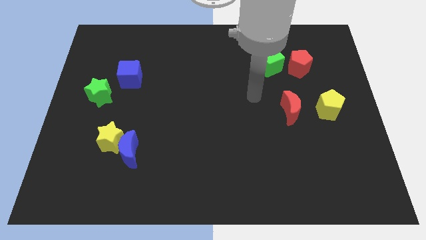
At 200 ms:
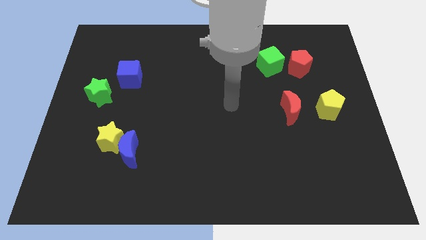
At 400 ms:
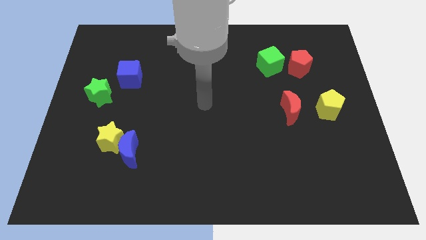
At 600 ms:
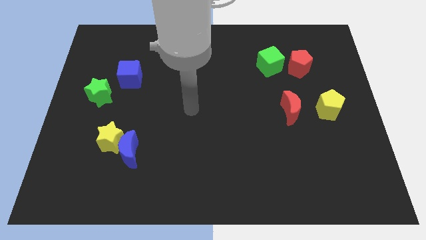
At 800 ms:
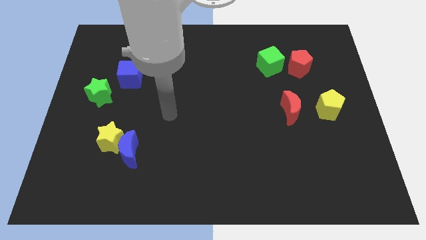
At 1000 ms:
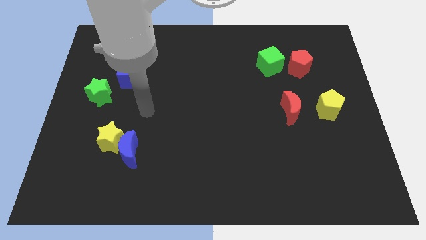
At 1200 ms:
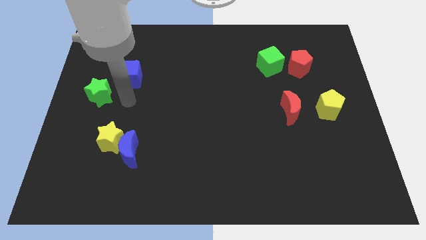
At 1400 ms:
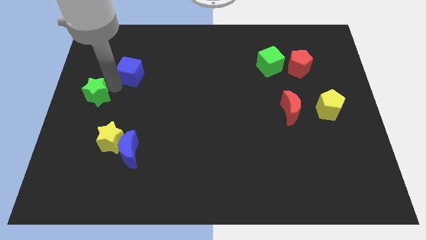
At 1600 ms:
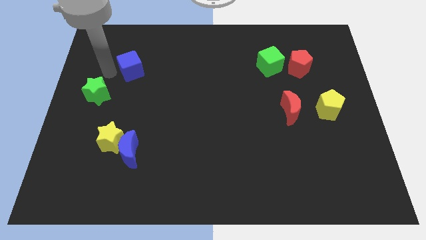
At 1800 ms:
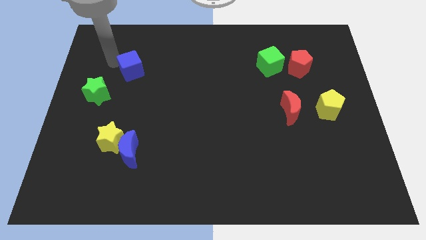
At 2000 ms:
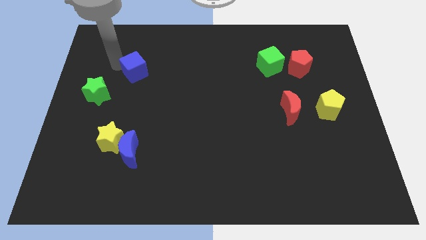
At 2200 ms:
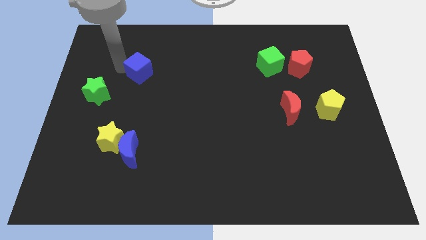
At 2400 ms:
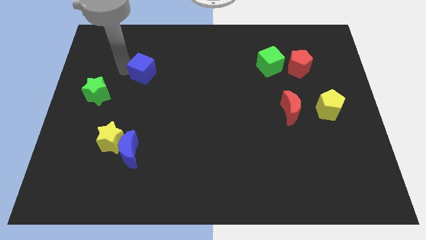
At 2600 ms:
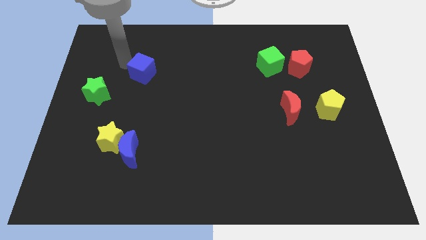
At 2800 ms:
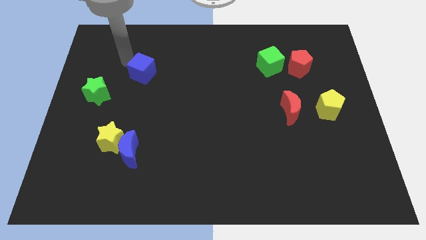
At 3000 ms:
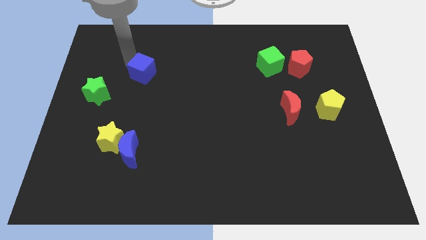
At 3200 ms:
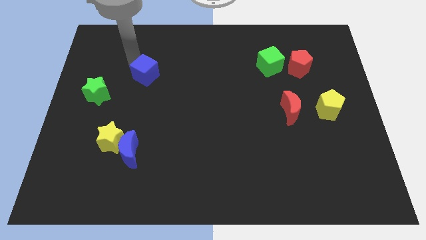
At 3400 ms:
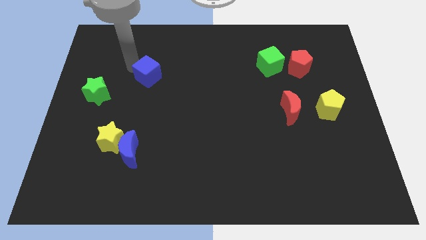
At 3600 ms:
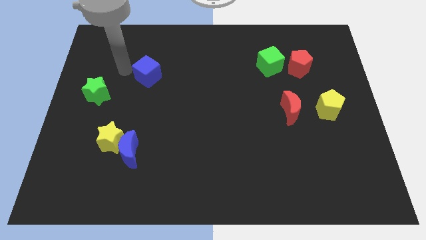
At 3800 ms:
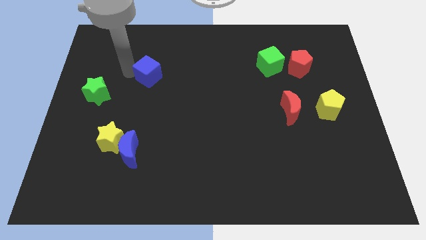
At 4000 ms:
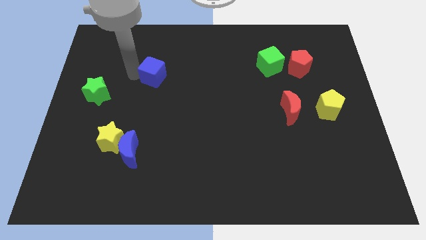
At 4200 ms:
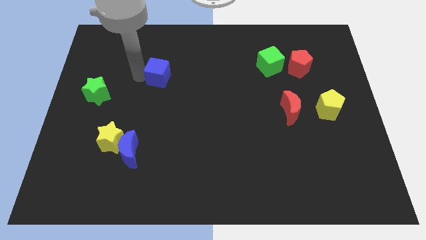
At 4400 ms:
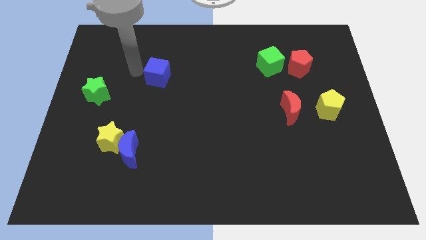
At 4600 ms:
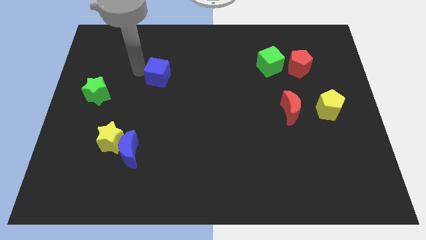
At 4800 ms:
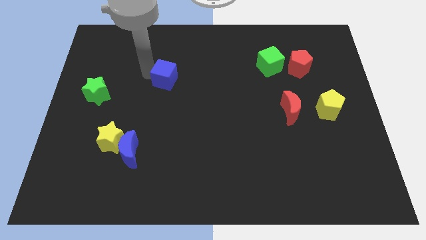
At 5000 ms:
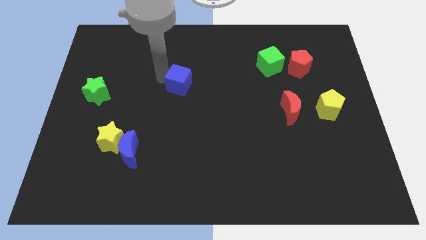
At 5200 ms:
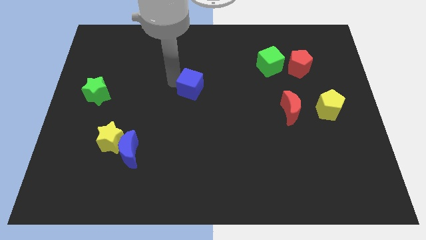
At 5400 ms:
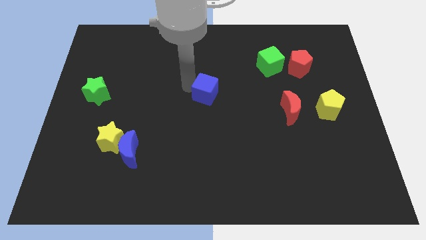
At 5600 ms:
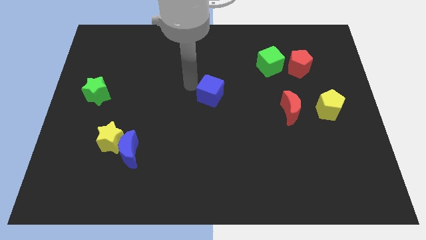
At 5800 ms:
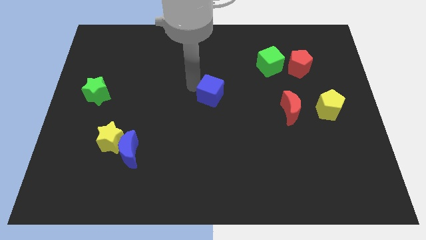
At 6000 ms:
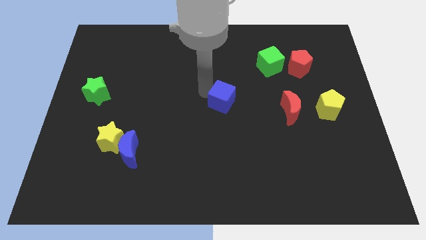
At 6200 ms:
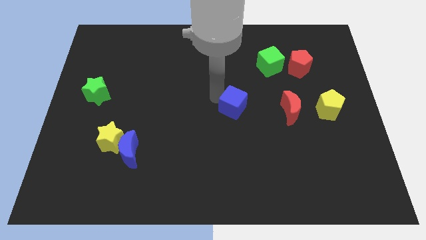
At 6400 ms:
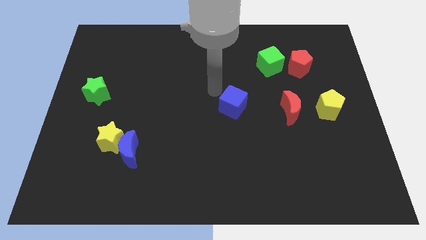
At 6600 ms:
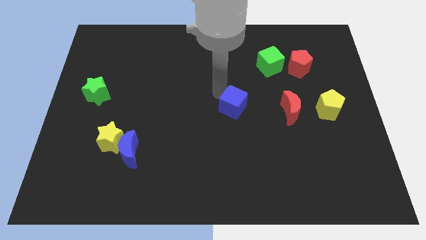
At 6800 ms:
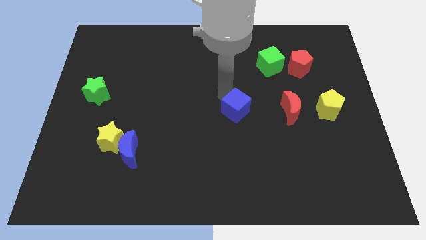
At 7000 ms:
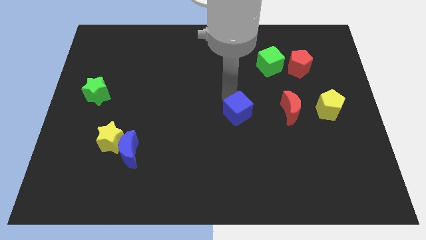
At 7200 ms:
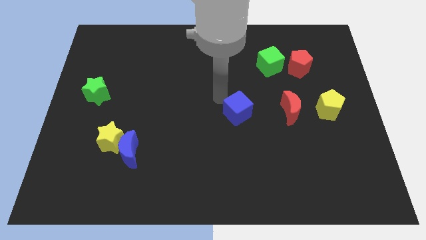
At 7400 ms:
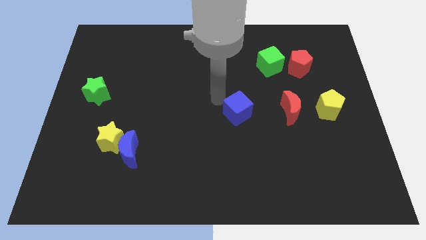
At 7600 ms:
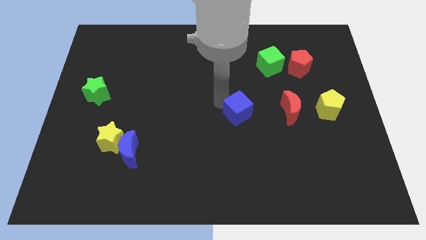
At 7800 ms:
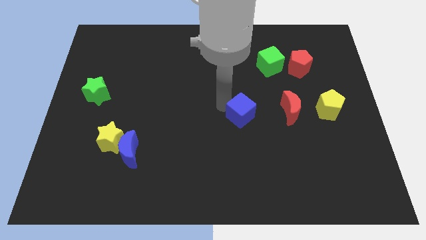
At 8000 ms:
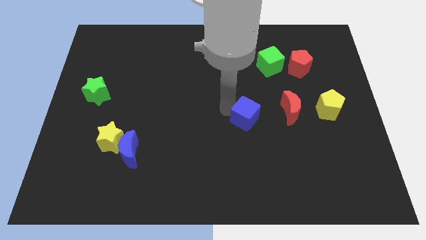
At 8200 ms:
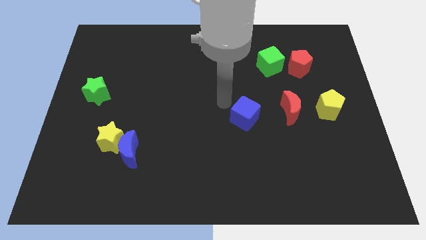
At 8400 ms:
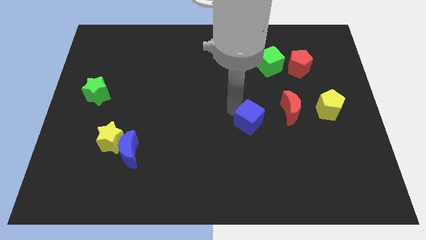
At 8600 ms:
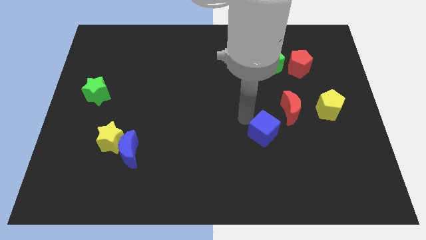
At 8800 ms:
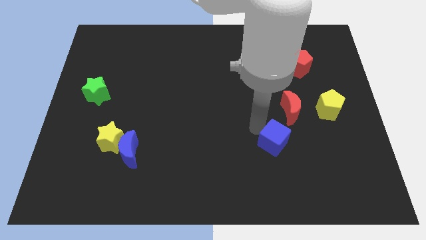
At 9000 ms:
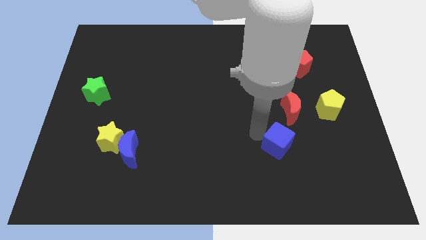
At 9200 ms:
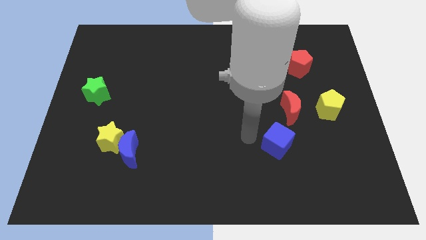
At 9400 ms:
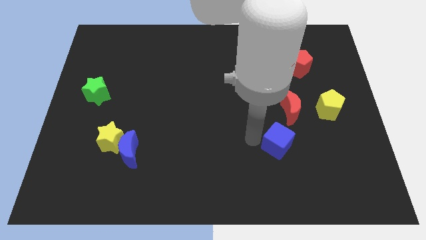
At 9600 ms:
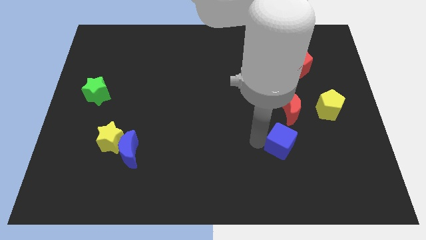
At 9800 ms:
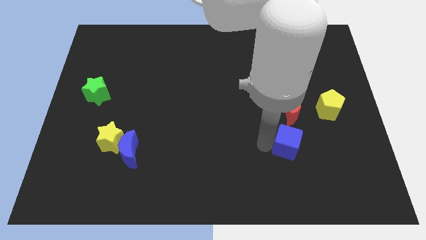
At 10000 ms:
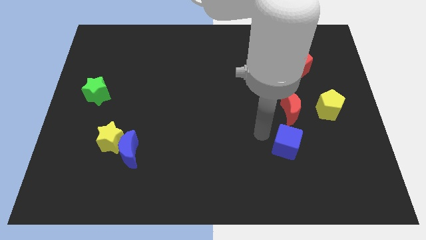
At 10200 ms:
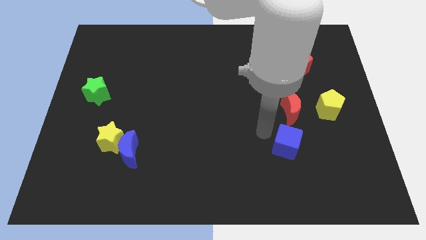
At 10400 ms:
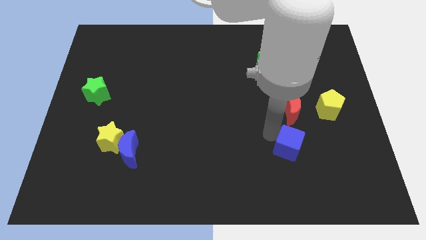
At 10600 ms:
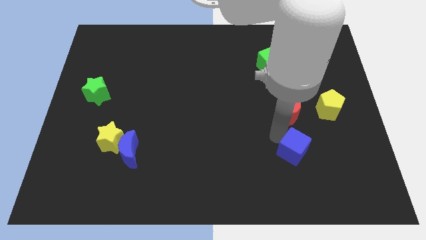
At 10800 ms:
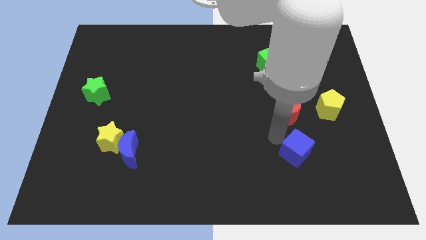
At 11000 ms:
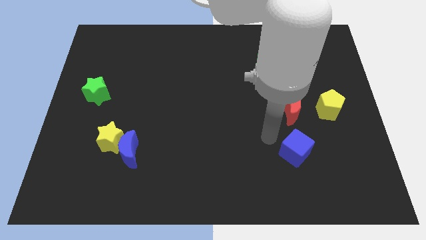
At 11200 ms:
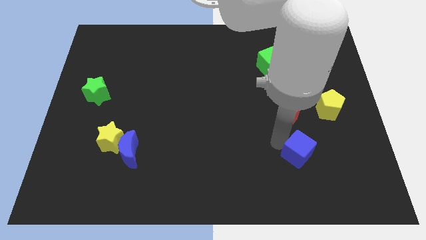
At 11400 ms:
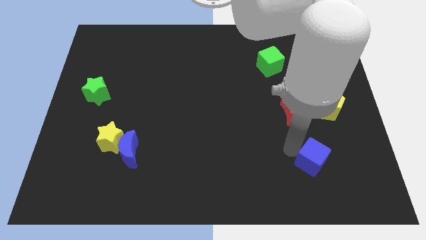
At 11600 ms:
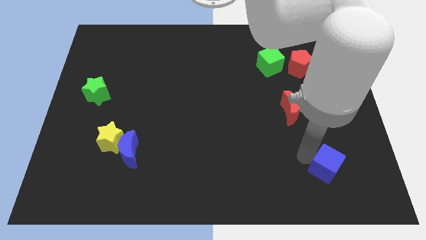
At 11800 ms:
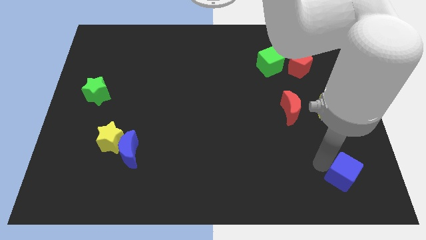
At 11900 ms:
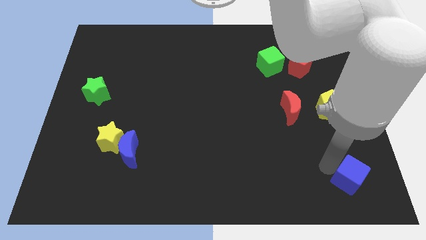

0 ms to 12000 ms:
slide the blue cube to the bottom right corner
